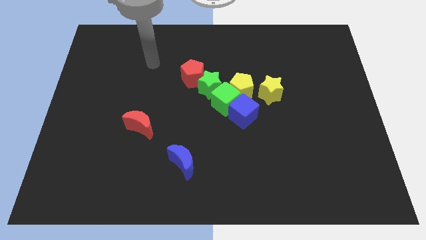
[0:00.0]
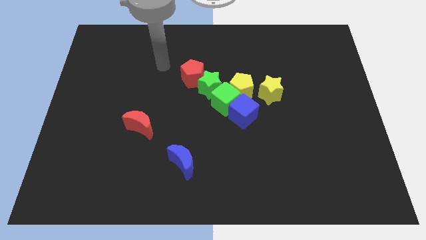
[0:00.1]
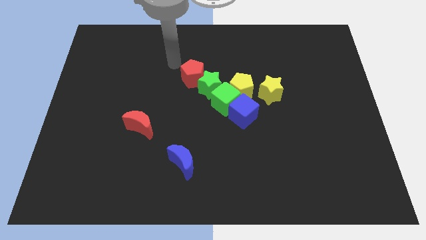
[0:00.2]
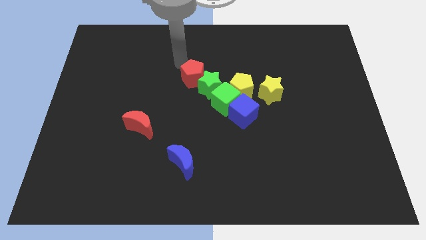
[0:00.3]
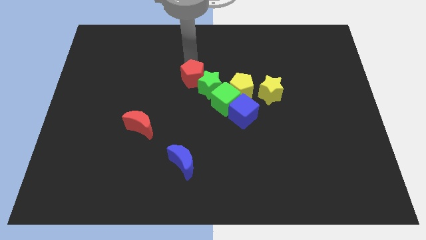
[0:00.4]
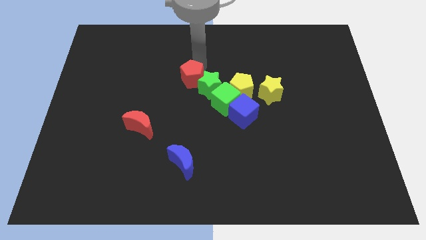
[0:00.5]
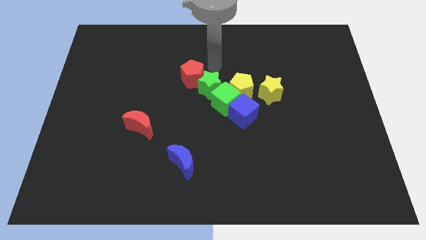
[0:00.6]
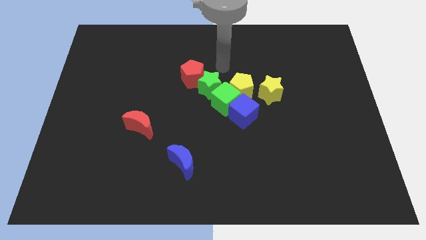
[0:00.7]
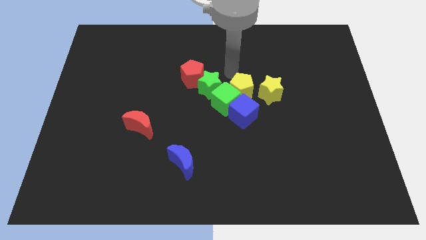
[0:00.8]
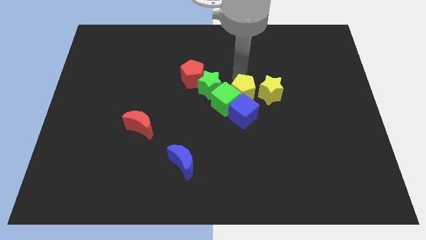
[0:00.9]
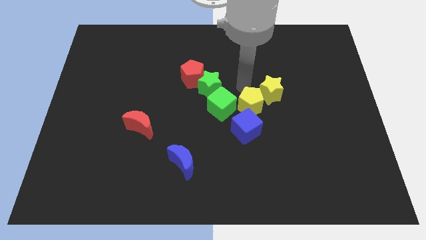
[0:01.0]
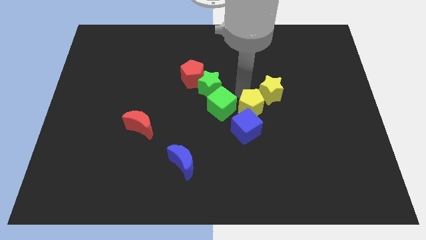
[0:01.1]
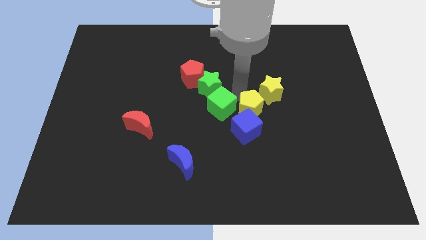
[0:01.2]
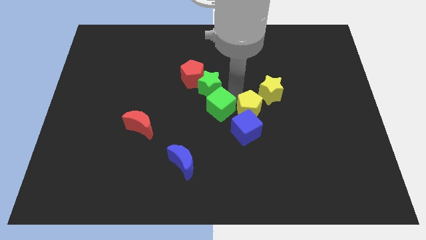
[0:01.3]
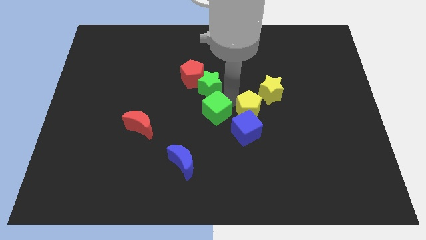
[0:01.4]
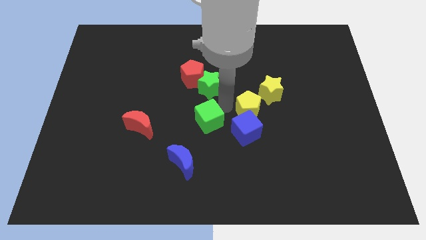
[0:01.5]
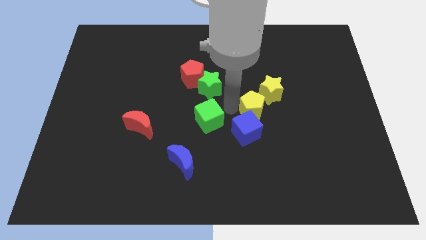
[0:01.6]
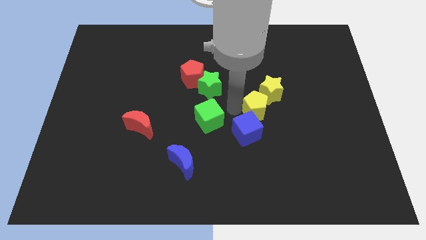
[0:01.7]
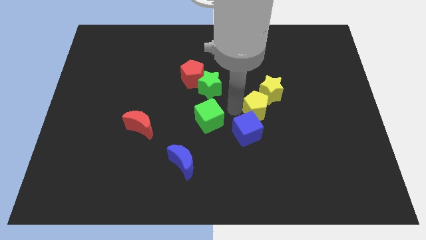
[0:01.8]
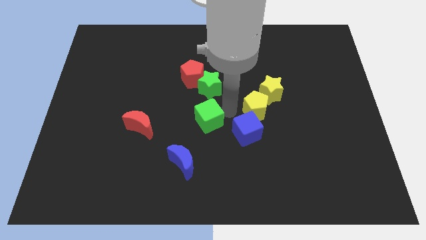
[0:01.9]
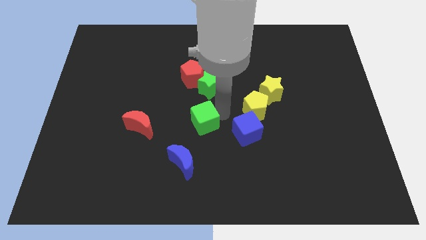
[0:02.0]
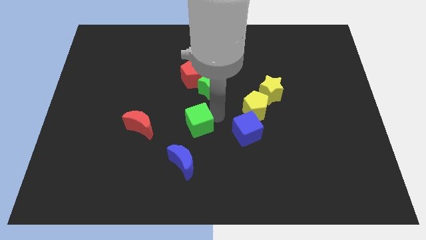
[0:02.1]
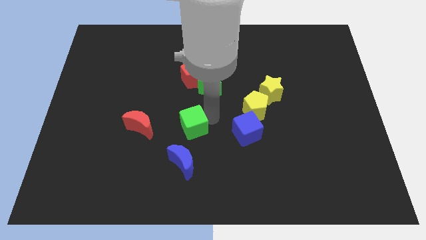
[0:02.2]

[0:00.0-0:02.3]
move the green cube away from the blue cube, yellow pentagon, and green star

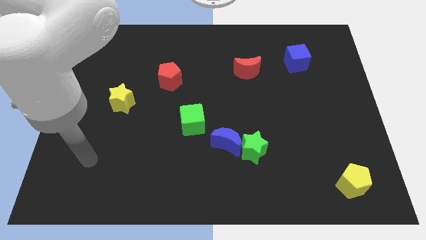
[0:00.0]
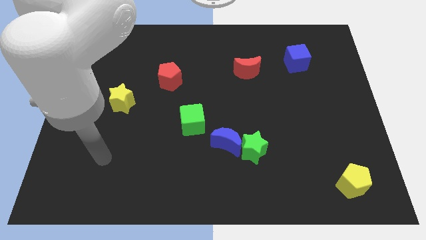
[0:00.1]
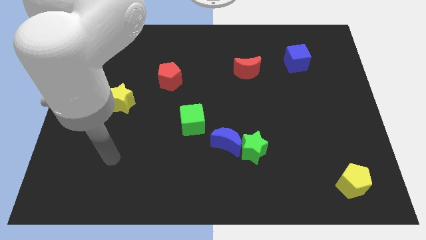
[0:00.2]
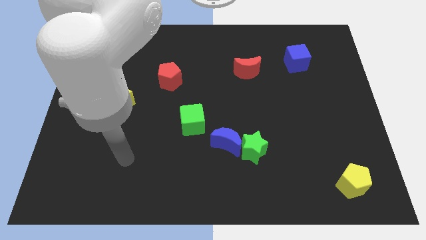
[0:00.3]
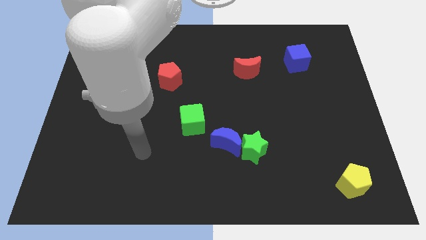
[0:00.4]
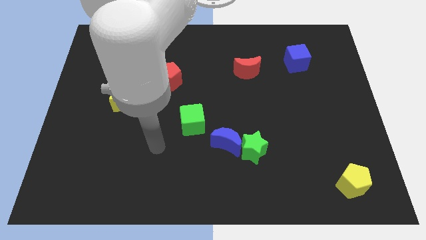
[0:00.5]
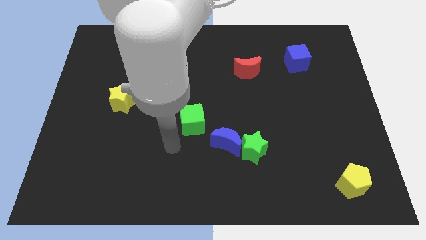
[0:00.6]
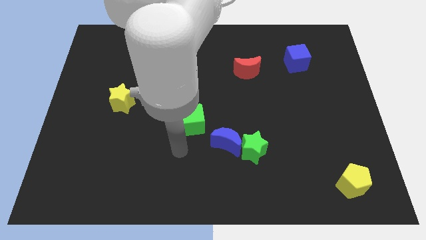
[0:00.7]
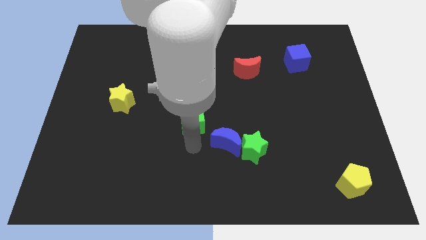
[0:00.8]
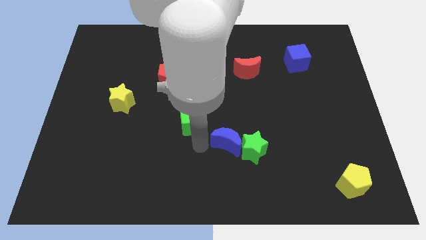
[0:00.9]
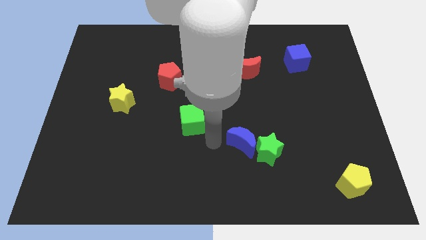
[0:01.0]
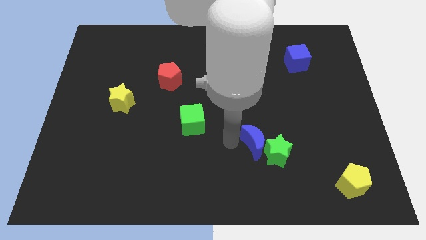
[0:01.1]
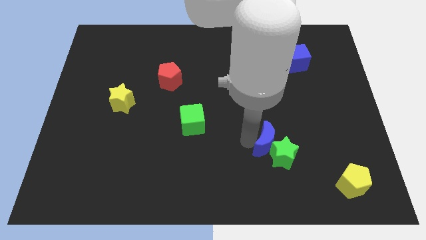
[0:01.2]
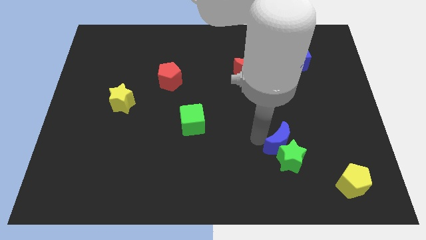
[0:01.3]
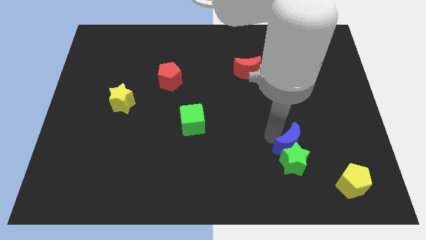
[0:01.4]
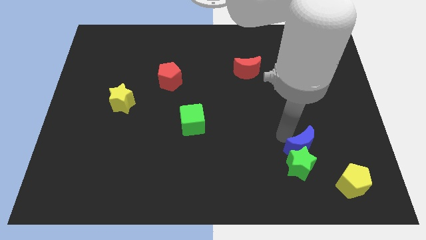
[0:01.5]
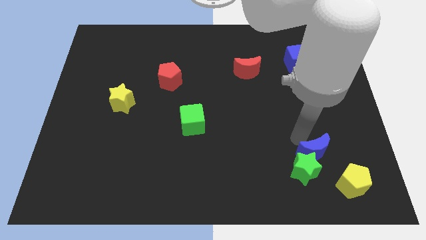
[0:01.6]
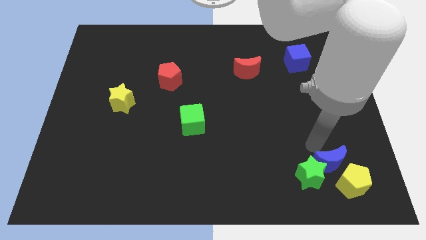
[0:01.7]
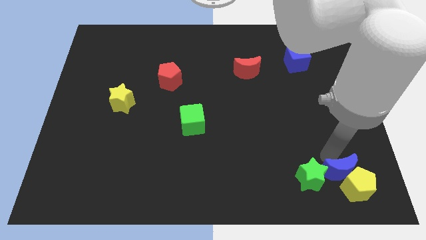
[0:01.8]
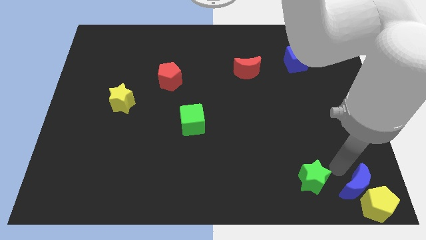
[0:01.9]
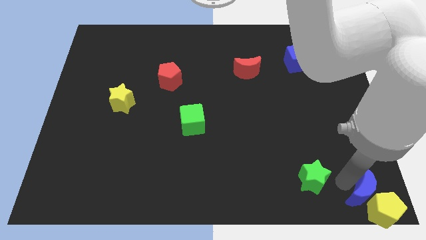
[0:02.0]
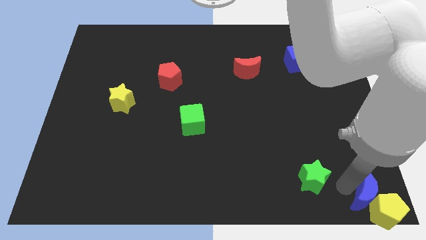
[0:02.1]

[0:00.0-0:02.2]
move the green star away from the blue moon

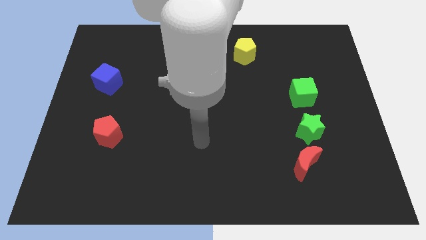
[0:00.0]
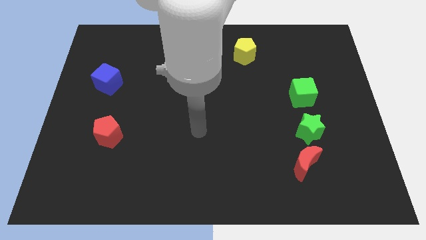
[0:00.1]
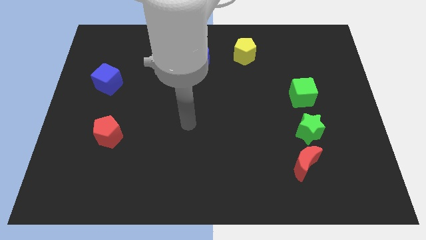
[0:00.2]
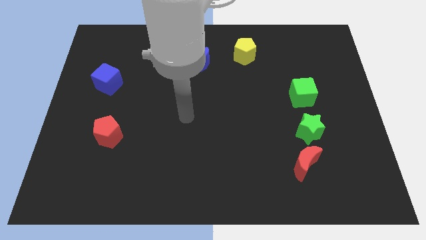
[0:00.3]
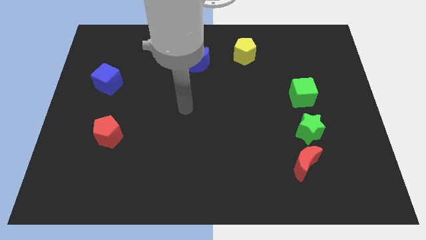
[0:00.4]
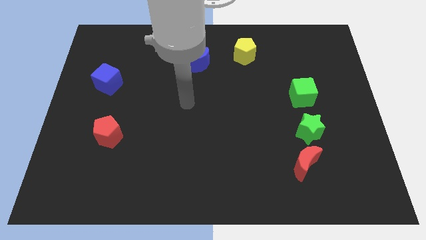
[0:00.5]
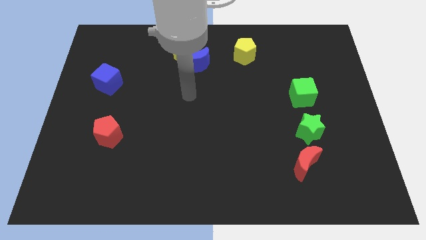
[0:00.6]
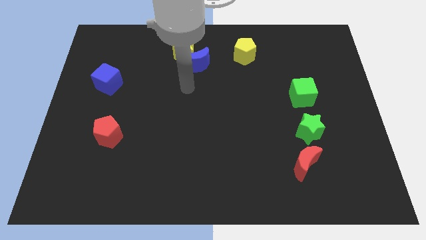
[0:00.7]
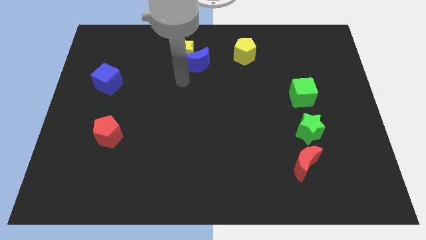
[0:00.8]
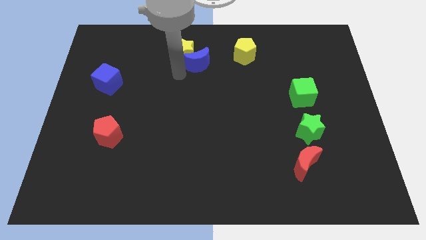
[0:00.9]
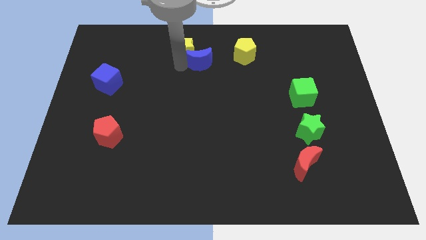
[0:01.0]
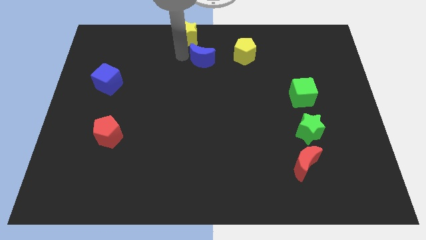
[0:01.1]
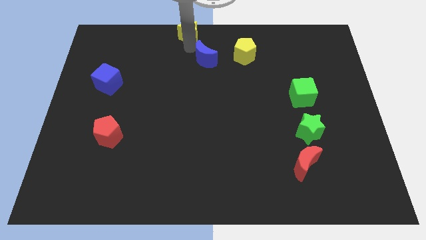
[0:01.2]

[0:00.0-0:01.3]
pull the blue moon apart from the yellow star

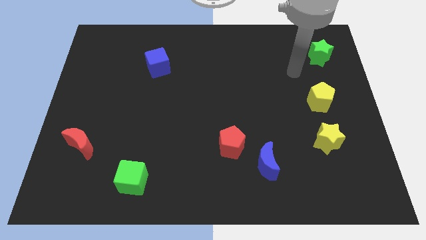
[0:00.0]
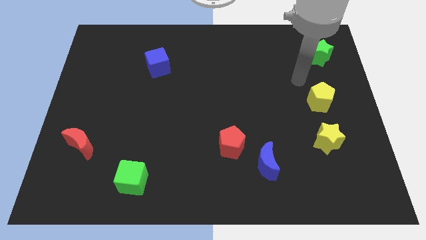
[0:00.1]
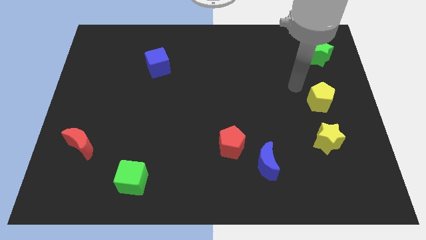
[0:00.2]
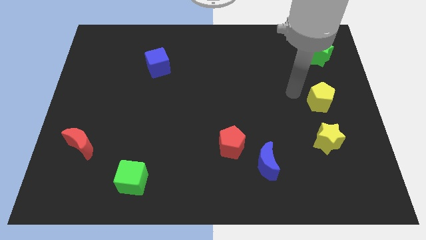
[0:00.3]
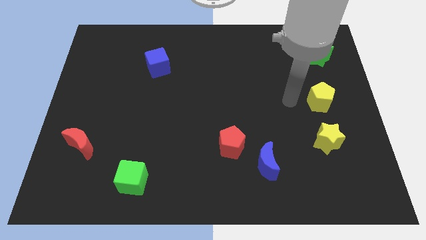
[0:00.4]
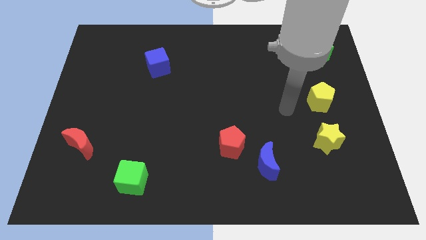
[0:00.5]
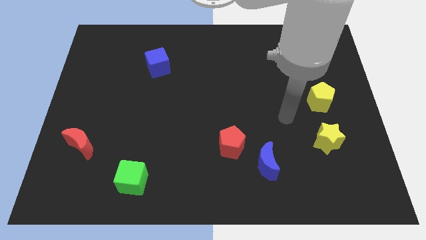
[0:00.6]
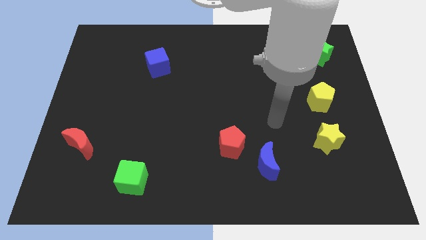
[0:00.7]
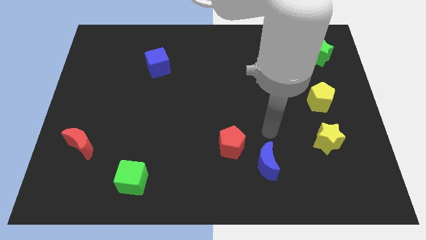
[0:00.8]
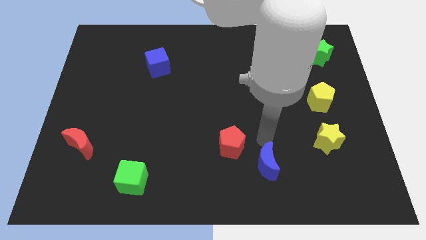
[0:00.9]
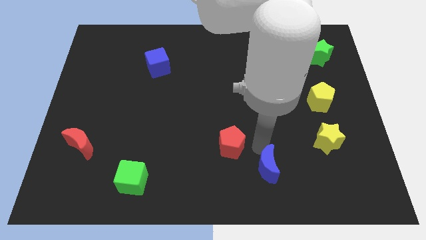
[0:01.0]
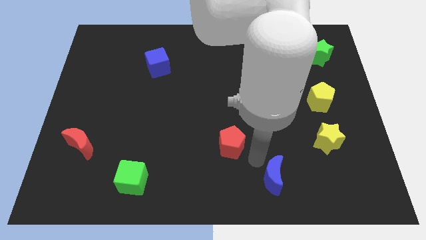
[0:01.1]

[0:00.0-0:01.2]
move the red pentagon away from the blue moon

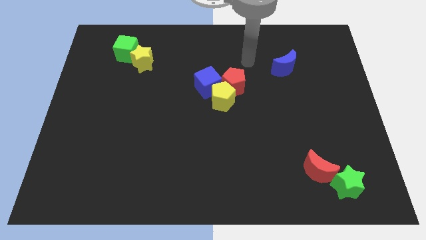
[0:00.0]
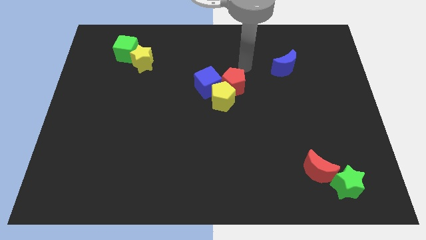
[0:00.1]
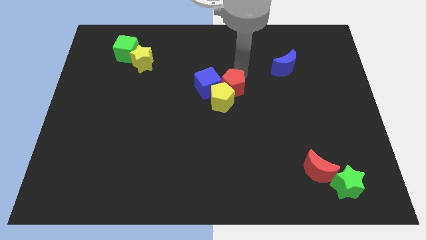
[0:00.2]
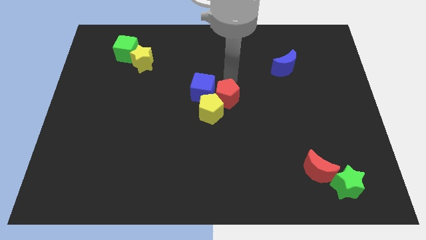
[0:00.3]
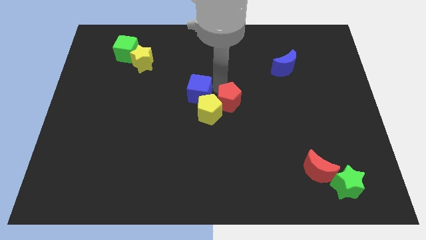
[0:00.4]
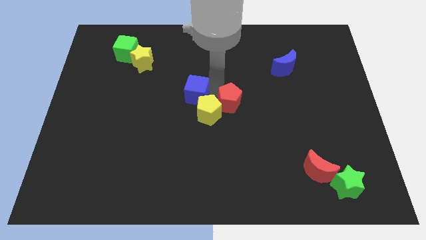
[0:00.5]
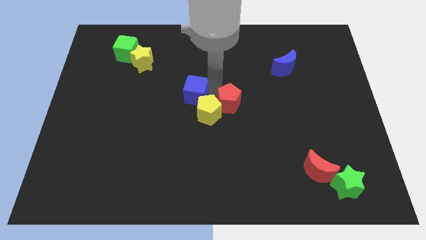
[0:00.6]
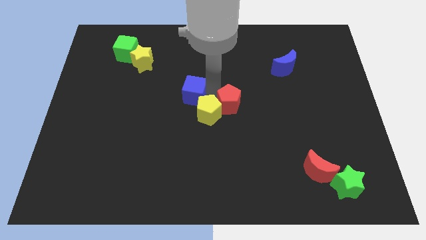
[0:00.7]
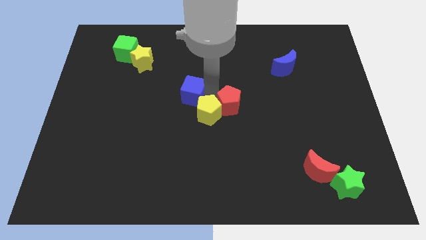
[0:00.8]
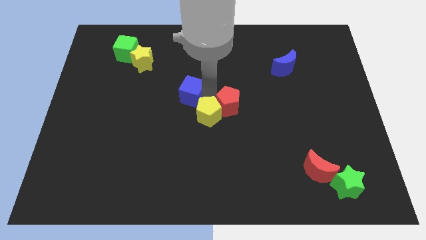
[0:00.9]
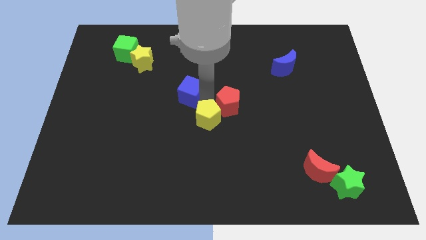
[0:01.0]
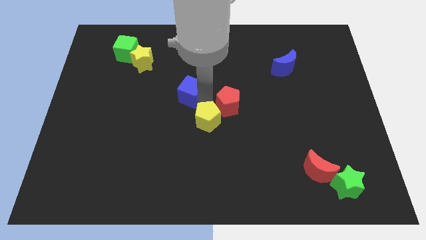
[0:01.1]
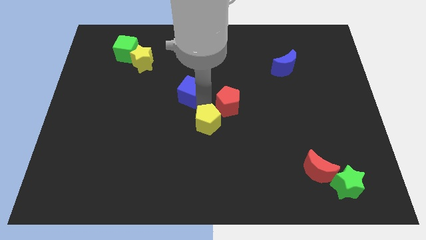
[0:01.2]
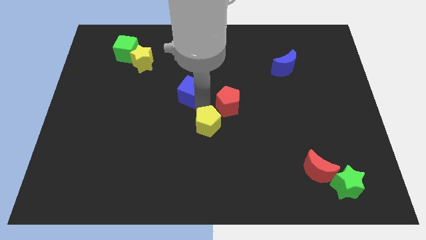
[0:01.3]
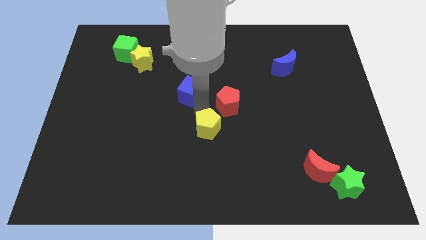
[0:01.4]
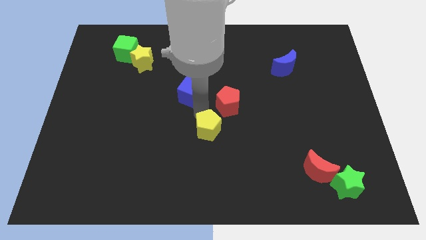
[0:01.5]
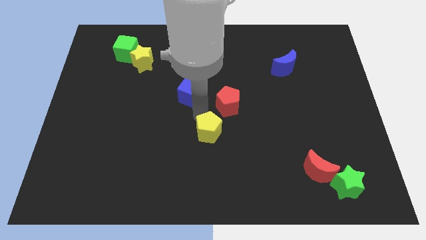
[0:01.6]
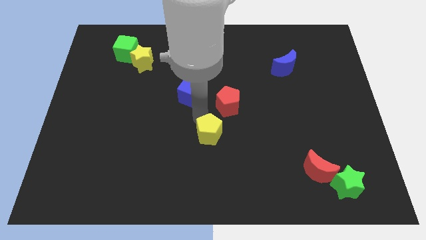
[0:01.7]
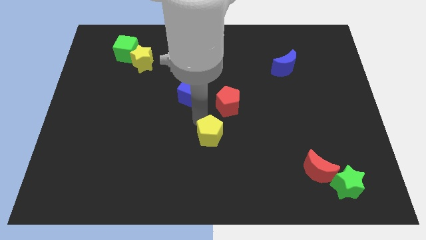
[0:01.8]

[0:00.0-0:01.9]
separate the yellow pentagon from the red pentagon and blue cube

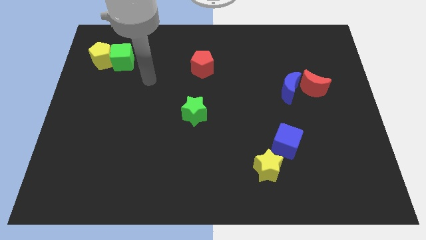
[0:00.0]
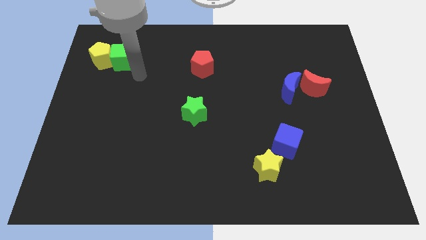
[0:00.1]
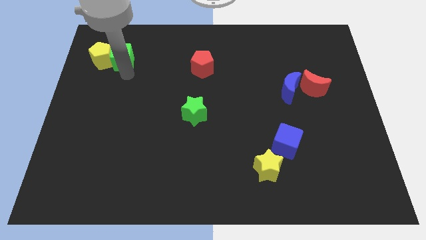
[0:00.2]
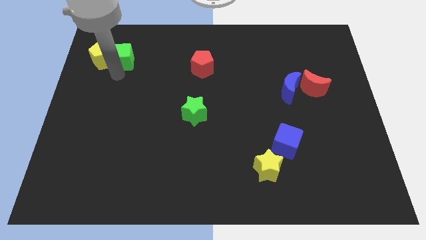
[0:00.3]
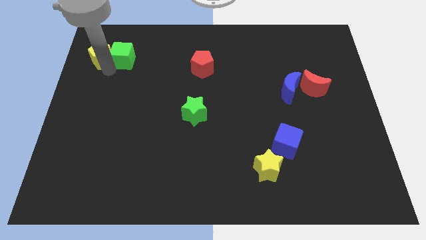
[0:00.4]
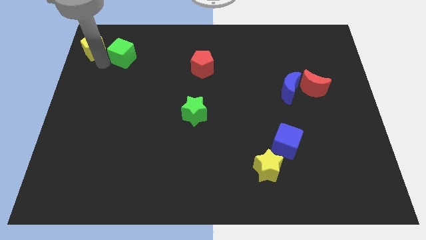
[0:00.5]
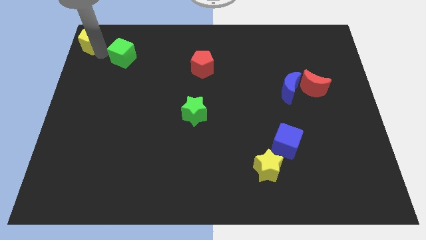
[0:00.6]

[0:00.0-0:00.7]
move the green cube away from the yellow pentagon
